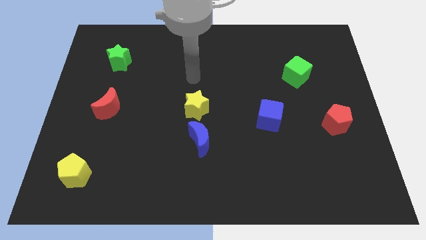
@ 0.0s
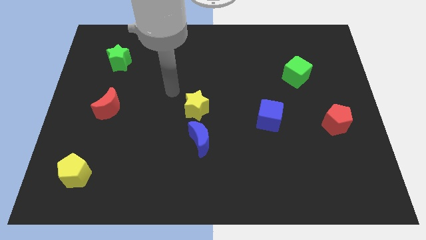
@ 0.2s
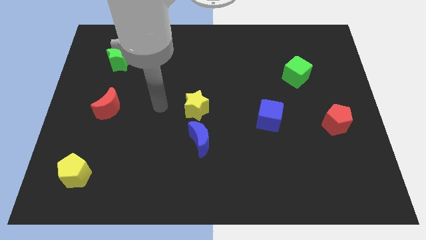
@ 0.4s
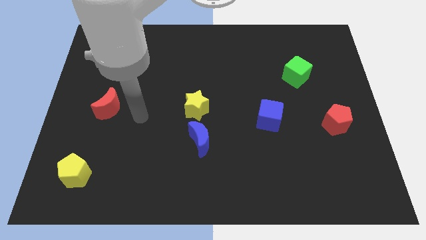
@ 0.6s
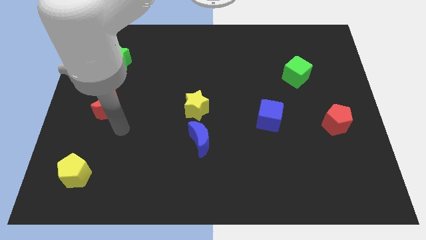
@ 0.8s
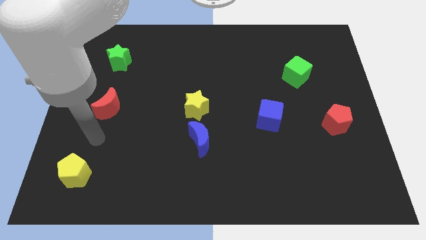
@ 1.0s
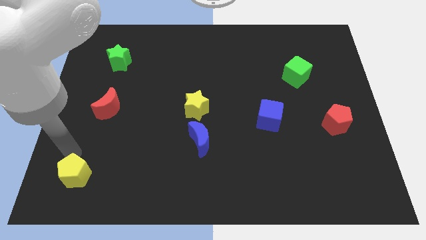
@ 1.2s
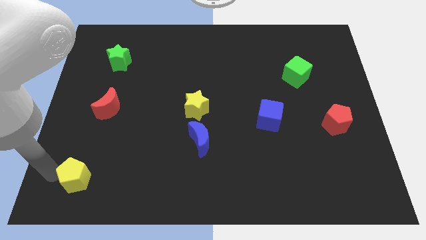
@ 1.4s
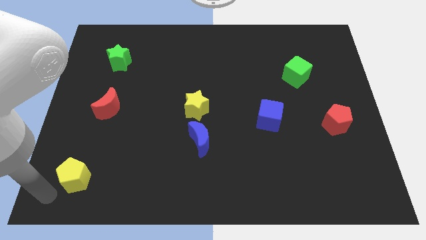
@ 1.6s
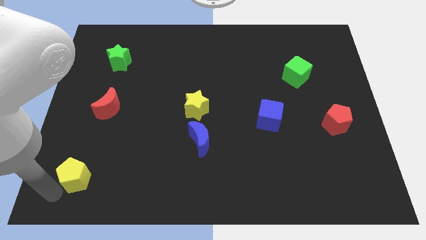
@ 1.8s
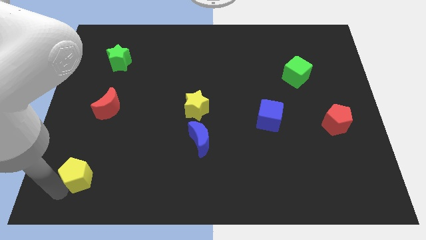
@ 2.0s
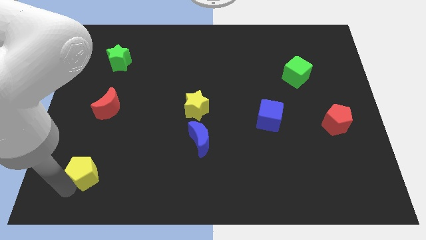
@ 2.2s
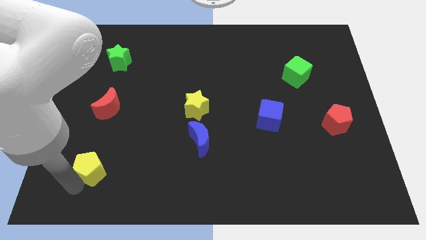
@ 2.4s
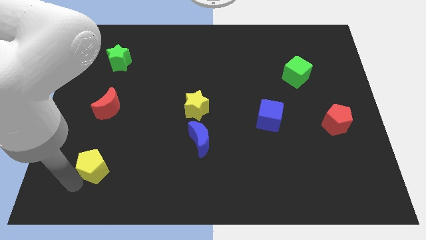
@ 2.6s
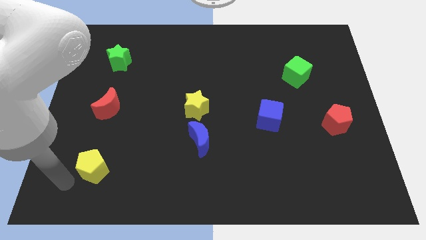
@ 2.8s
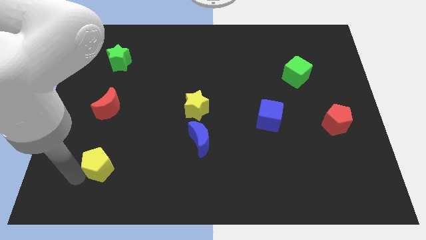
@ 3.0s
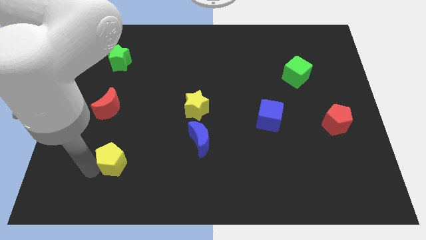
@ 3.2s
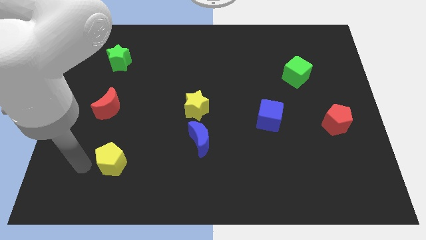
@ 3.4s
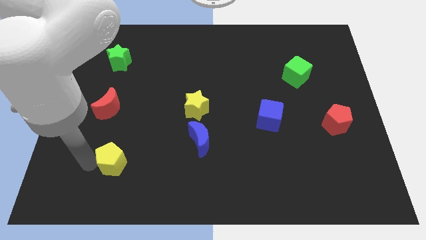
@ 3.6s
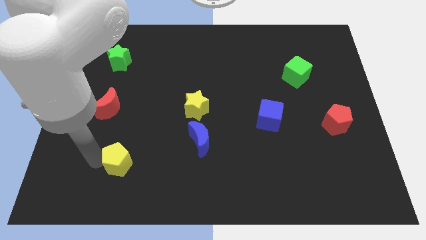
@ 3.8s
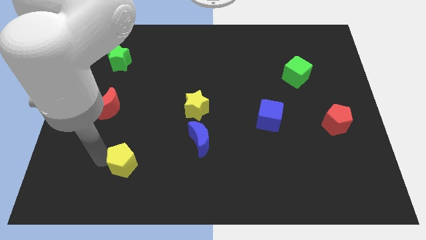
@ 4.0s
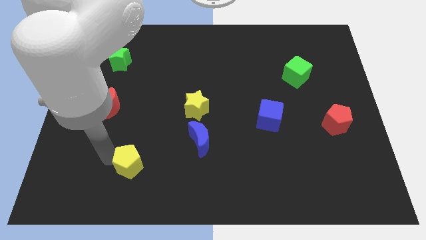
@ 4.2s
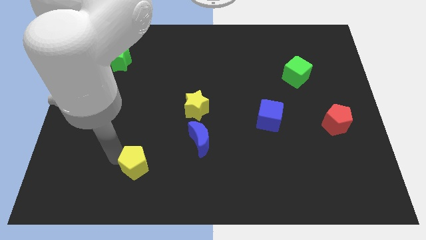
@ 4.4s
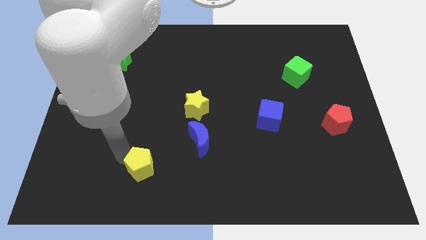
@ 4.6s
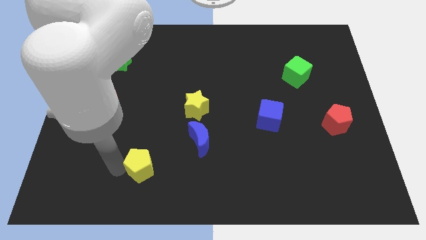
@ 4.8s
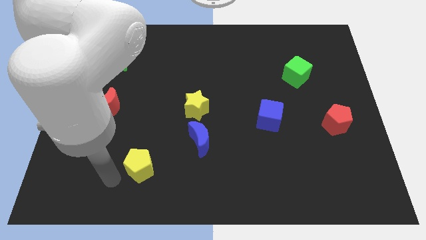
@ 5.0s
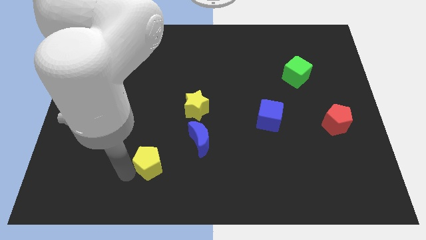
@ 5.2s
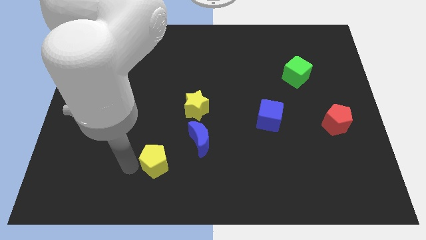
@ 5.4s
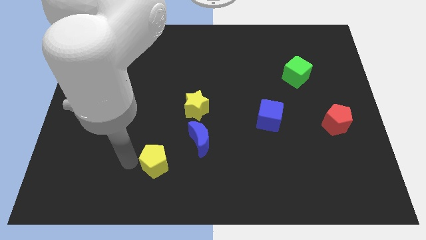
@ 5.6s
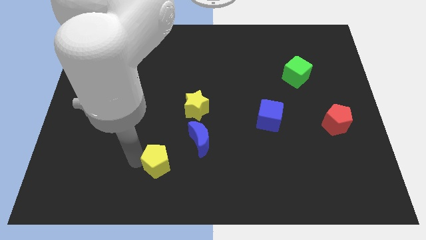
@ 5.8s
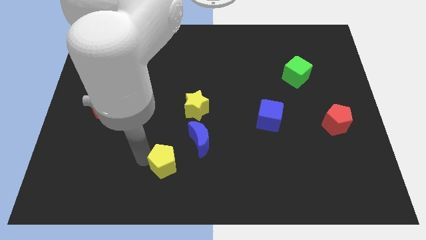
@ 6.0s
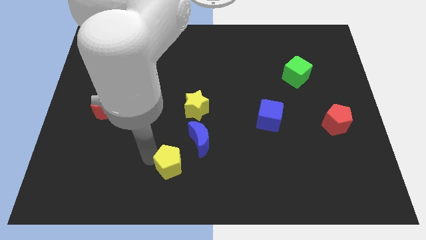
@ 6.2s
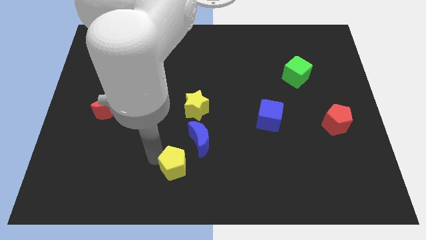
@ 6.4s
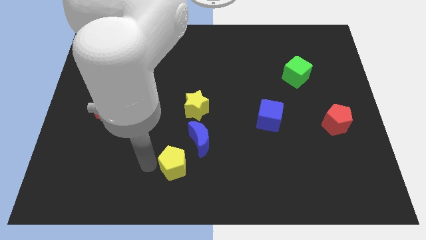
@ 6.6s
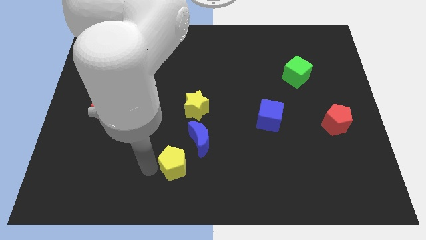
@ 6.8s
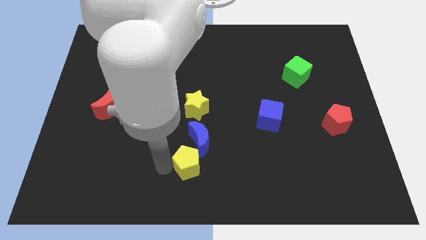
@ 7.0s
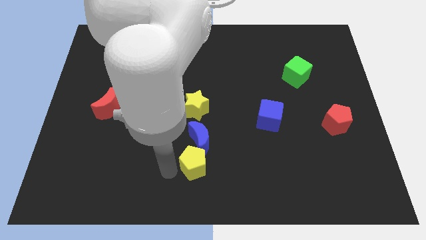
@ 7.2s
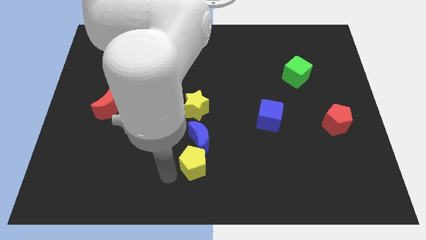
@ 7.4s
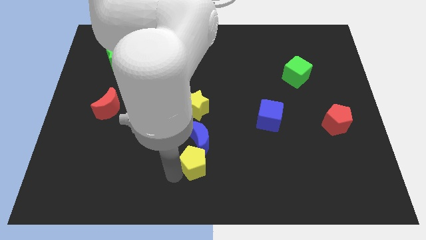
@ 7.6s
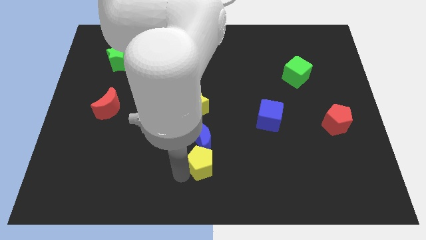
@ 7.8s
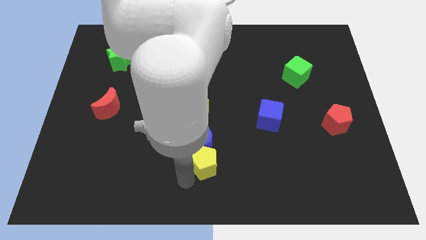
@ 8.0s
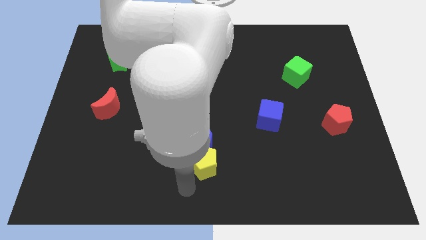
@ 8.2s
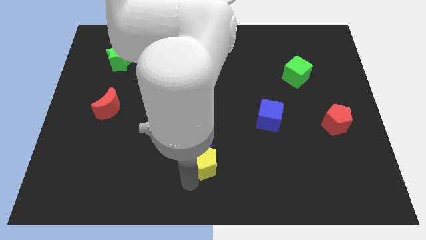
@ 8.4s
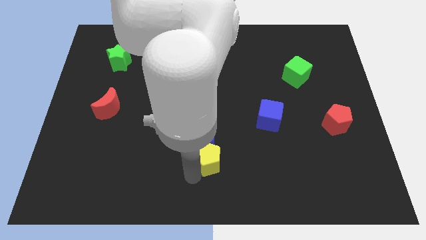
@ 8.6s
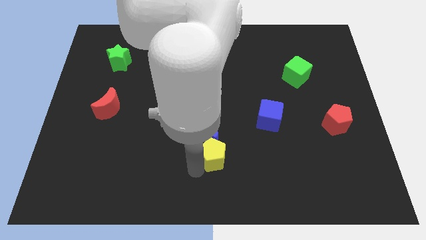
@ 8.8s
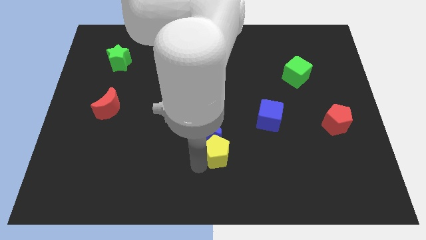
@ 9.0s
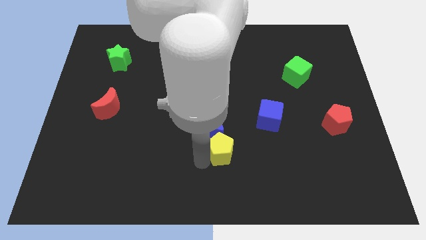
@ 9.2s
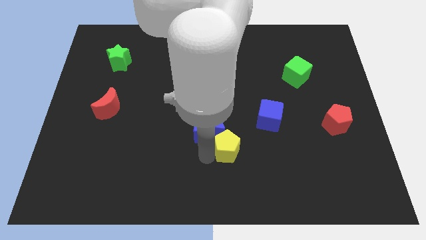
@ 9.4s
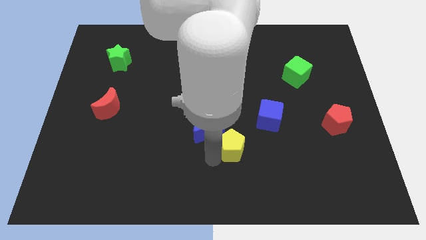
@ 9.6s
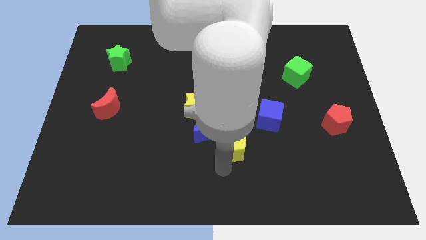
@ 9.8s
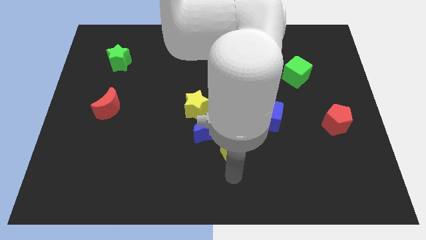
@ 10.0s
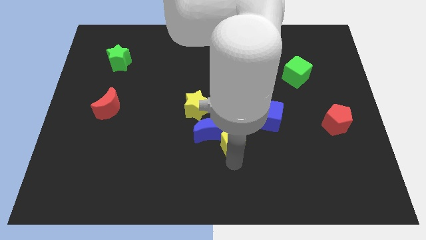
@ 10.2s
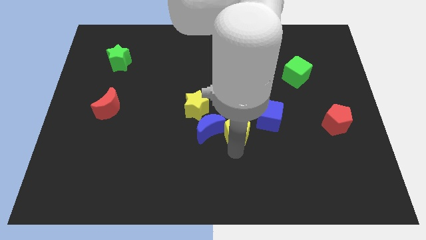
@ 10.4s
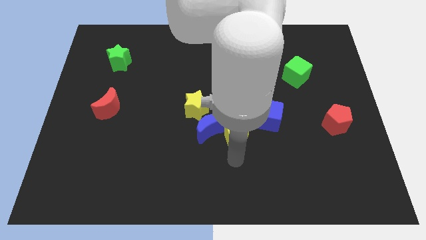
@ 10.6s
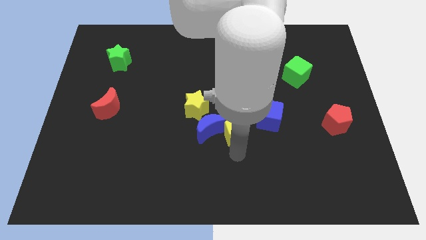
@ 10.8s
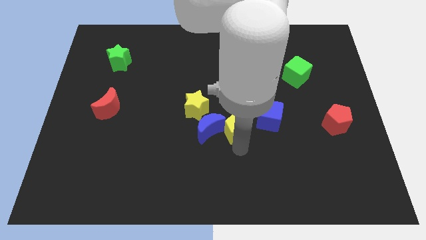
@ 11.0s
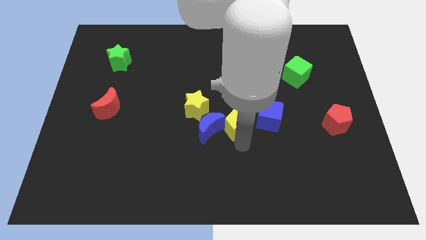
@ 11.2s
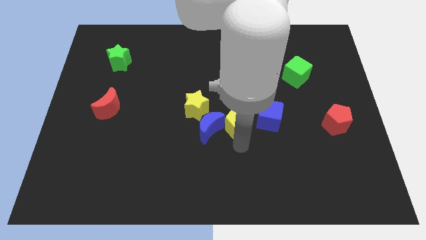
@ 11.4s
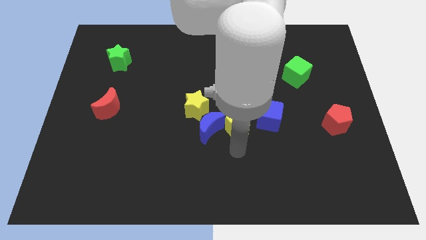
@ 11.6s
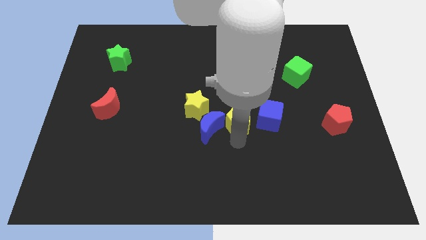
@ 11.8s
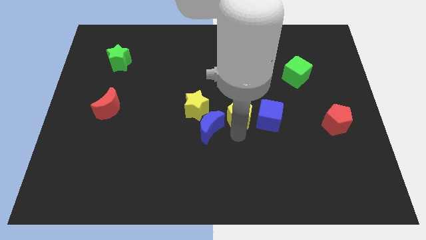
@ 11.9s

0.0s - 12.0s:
put the yellow pentagon to the top left side of the blue cube

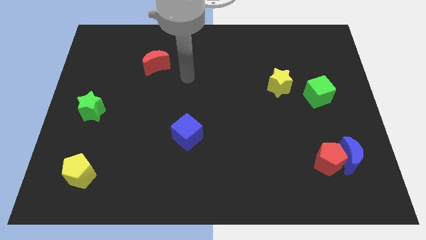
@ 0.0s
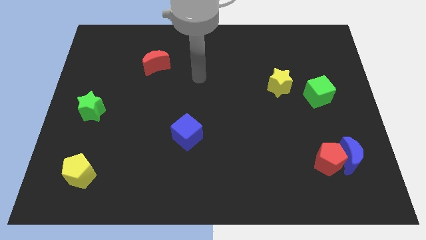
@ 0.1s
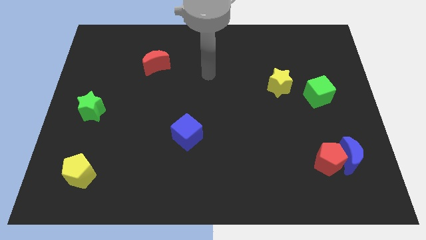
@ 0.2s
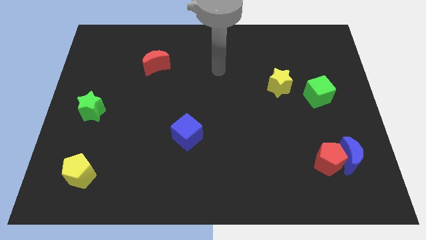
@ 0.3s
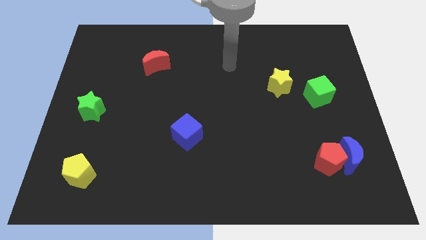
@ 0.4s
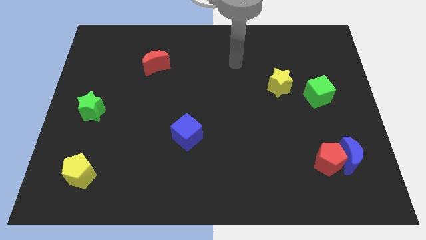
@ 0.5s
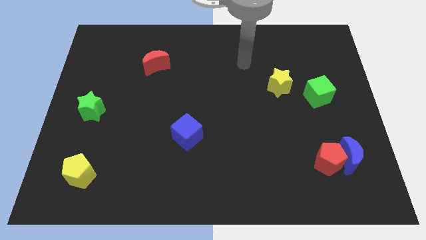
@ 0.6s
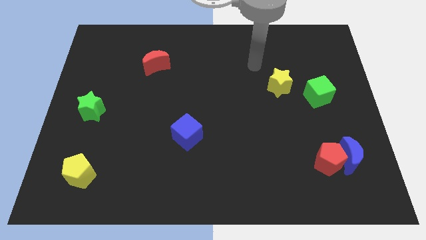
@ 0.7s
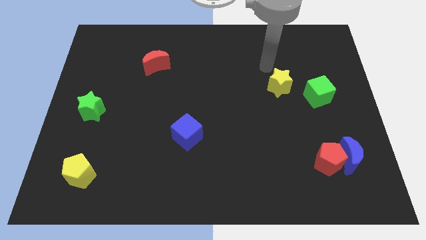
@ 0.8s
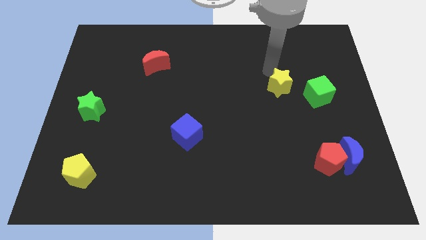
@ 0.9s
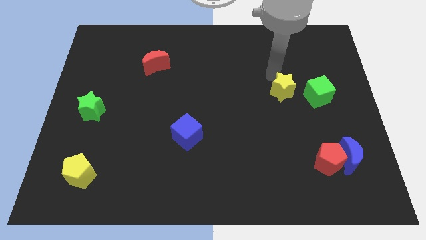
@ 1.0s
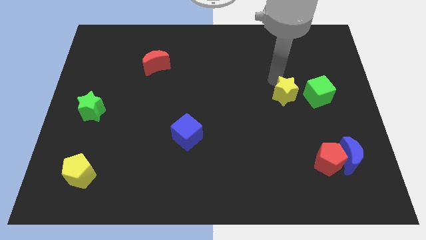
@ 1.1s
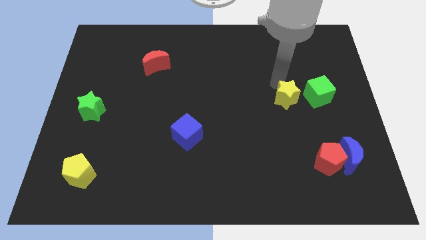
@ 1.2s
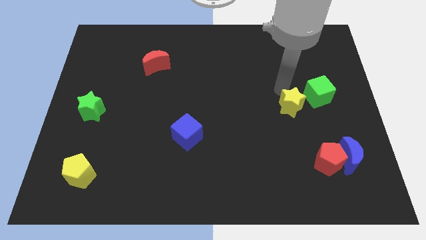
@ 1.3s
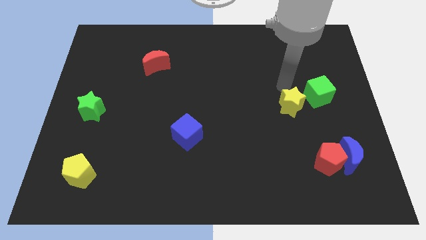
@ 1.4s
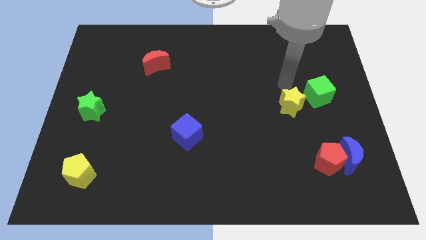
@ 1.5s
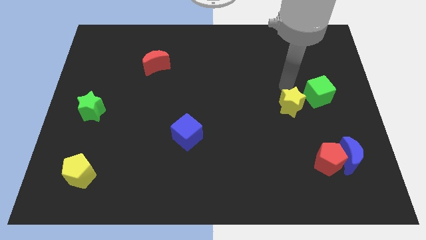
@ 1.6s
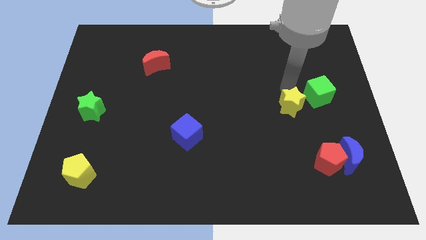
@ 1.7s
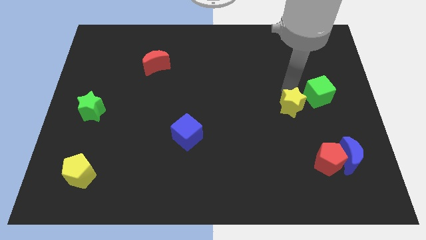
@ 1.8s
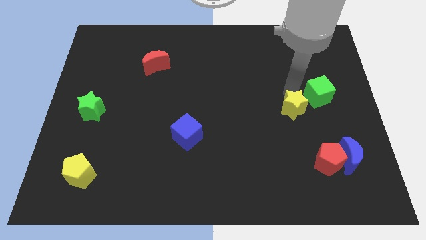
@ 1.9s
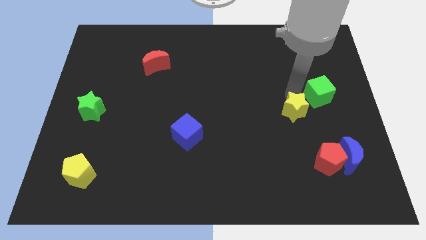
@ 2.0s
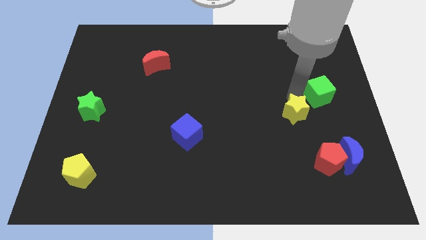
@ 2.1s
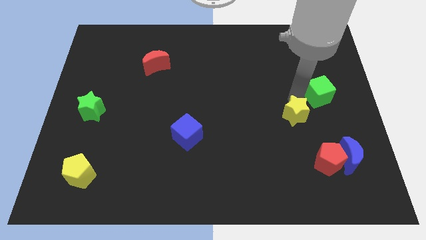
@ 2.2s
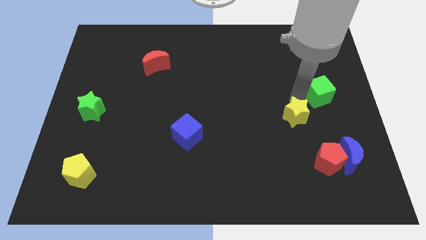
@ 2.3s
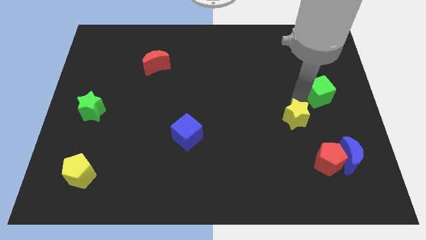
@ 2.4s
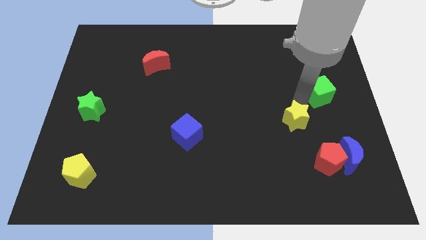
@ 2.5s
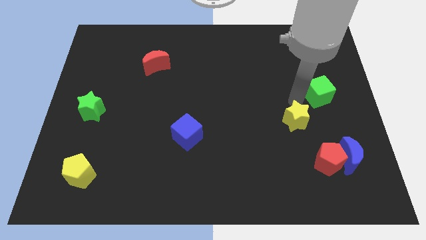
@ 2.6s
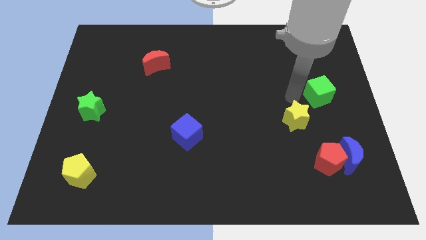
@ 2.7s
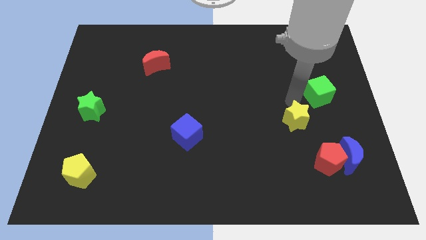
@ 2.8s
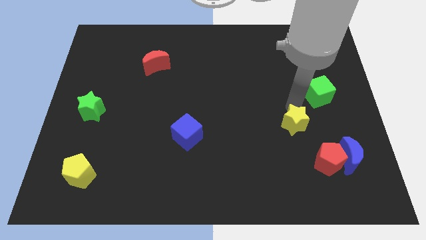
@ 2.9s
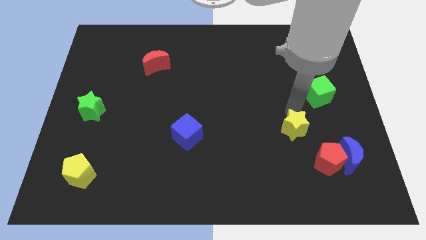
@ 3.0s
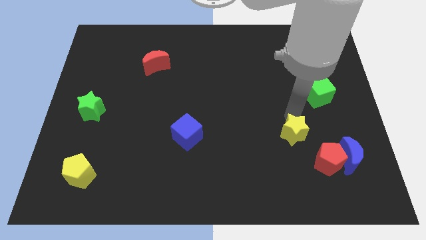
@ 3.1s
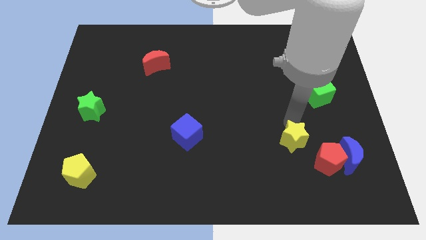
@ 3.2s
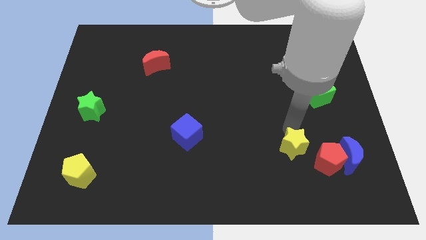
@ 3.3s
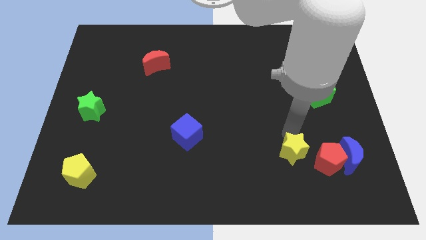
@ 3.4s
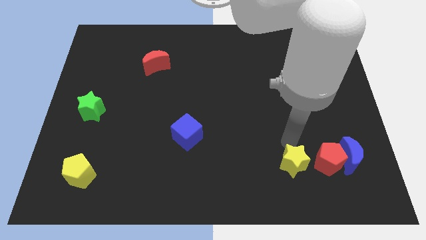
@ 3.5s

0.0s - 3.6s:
push the yellow star to the bottom left of the red pentagon
